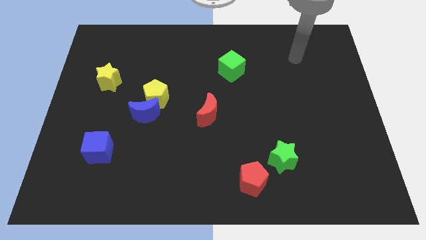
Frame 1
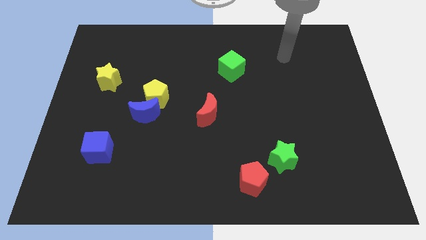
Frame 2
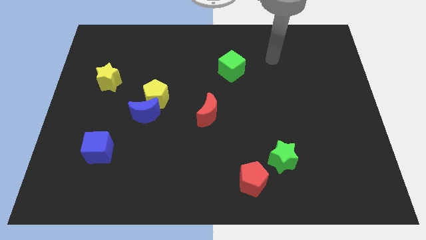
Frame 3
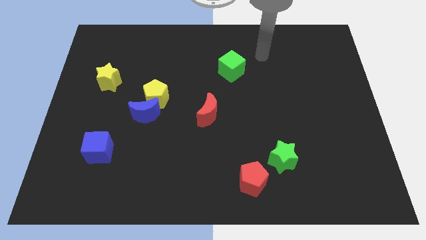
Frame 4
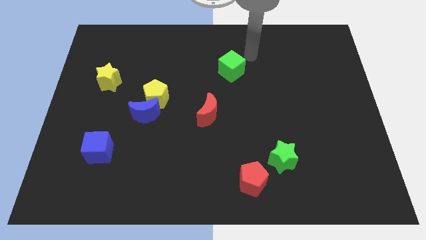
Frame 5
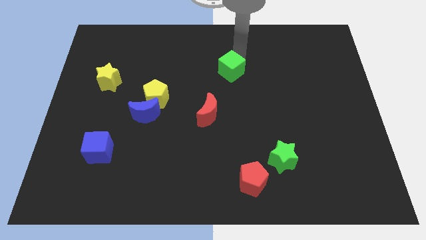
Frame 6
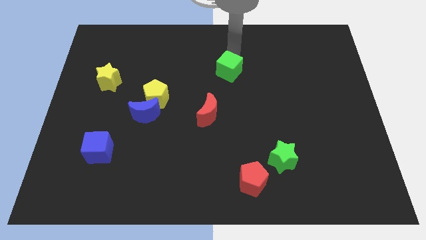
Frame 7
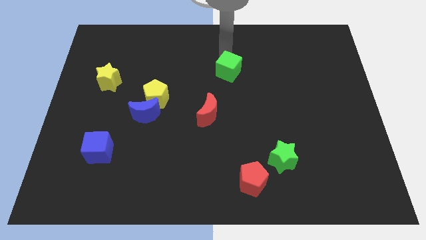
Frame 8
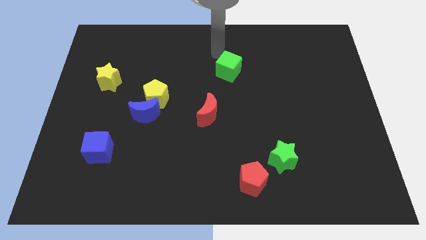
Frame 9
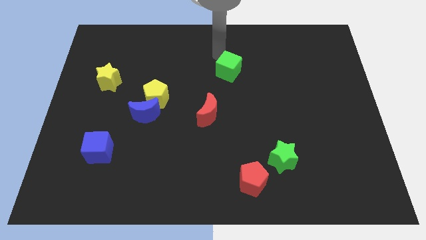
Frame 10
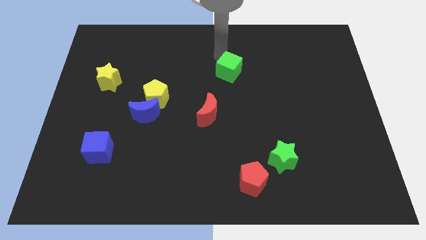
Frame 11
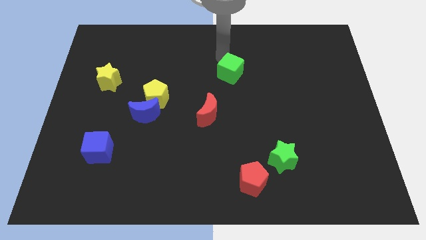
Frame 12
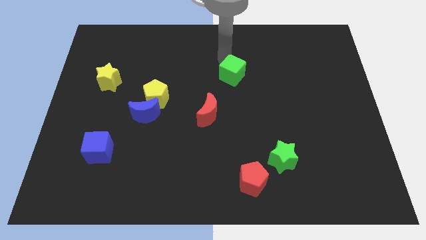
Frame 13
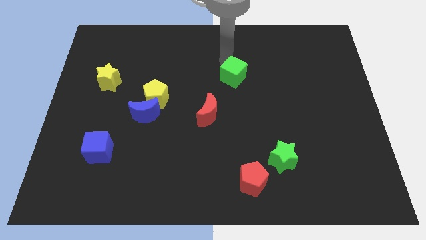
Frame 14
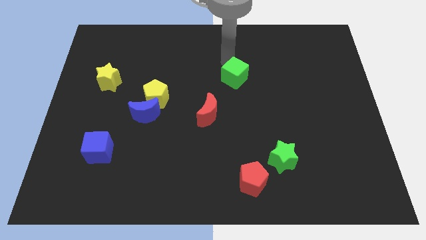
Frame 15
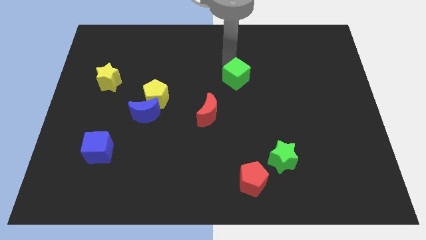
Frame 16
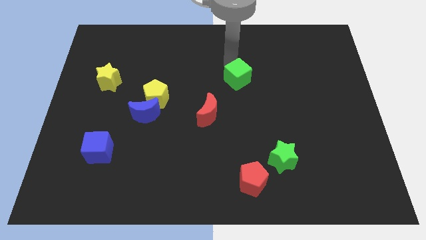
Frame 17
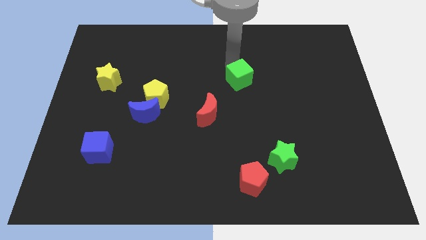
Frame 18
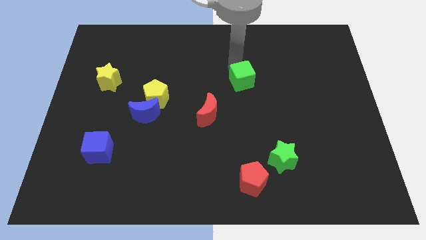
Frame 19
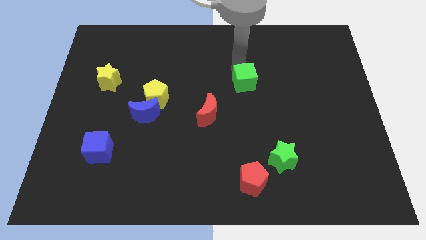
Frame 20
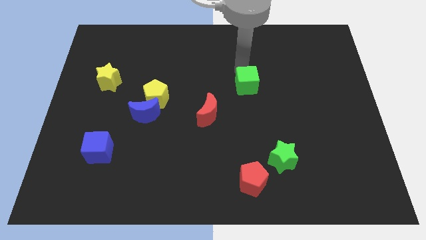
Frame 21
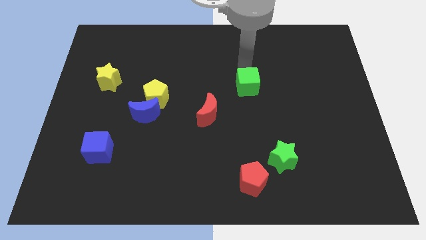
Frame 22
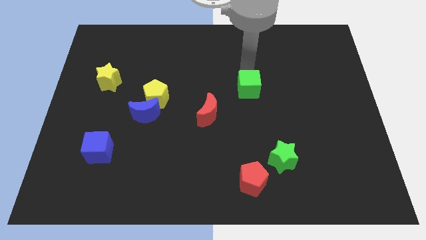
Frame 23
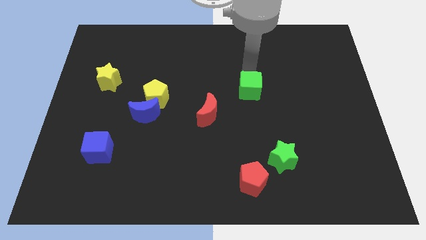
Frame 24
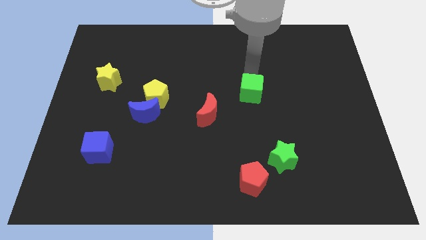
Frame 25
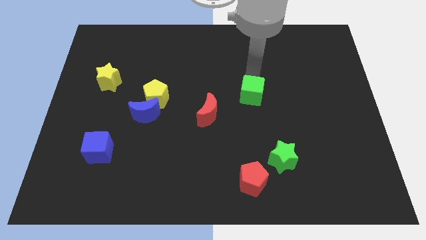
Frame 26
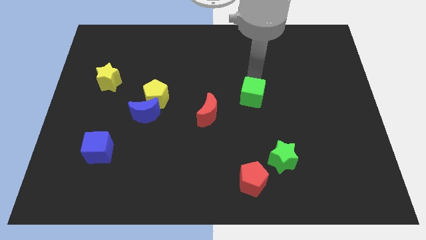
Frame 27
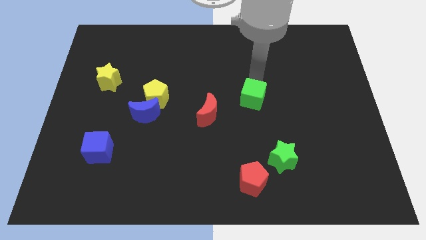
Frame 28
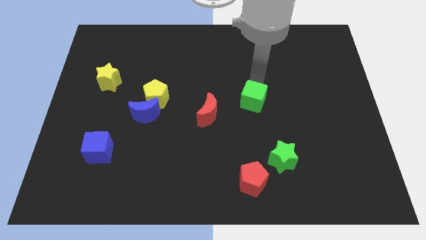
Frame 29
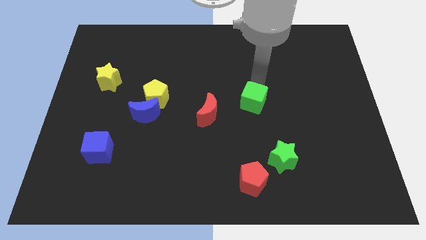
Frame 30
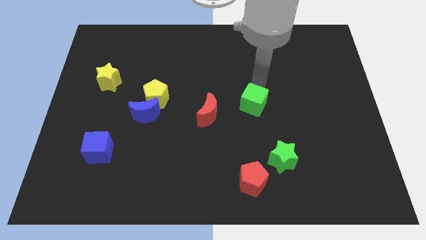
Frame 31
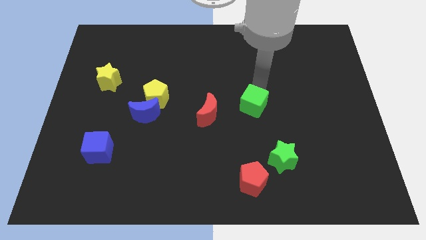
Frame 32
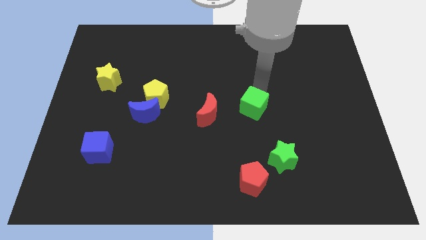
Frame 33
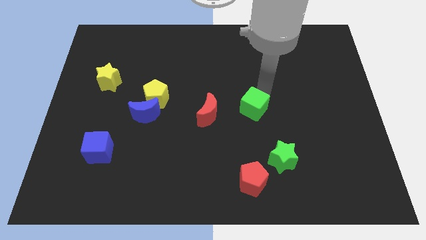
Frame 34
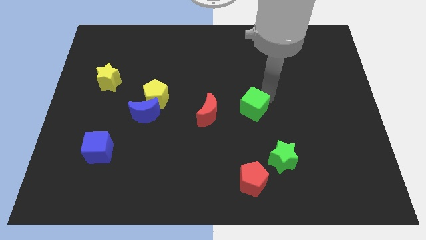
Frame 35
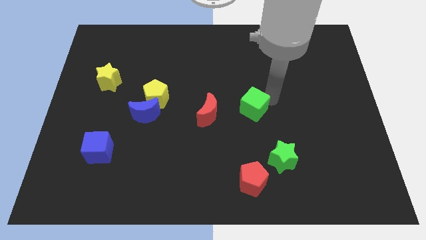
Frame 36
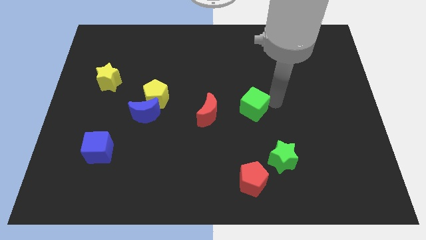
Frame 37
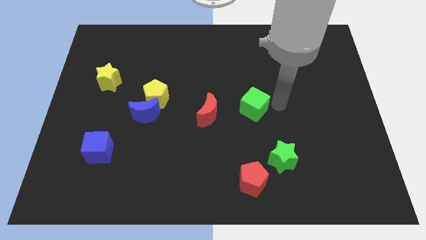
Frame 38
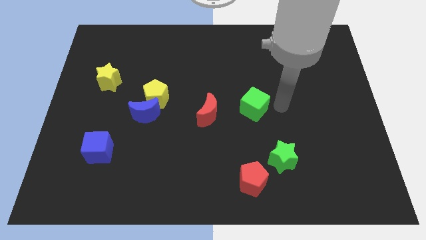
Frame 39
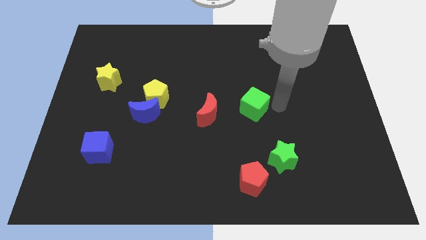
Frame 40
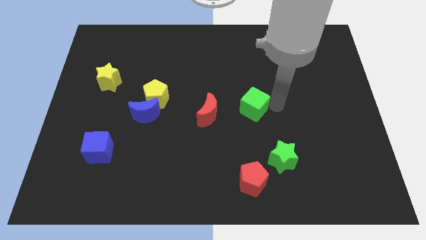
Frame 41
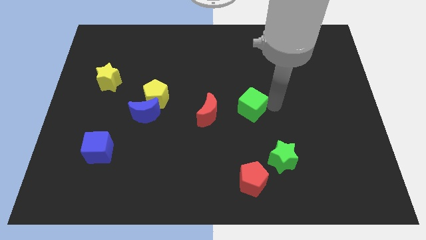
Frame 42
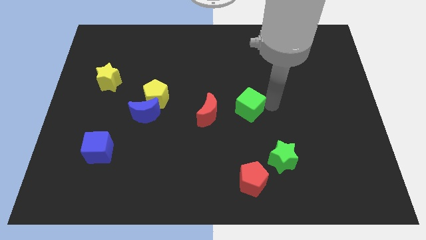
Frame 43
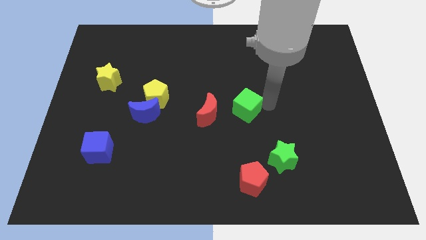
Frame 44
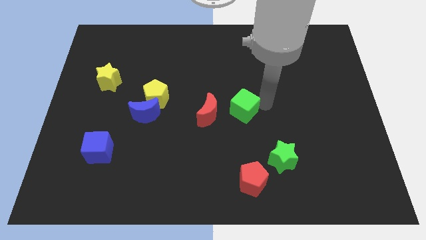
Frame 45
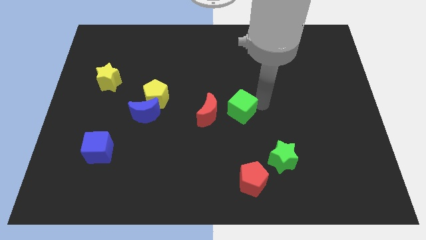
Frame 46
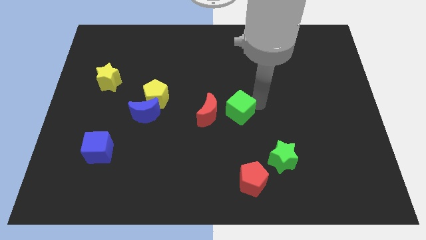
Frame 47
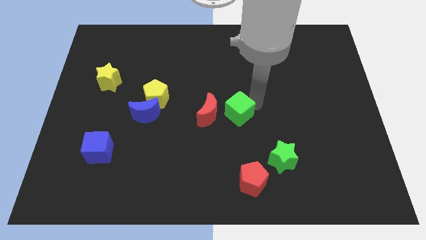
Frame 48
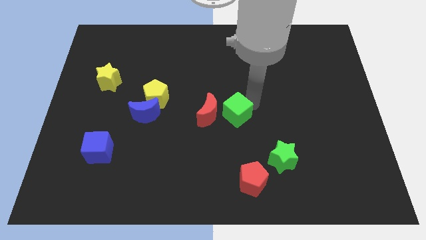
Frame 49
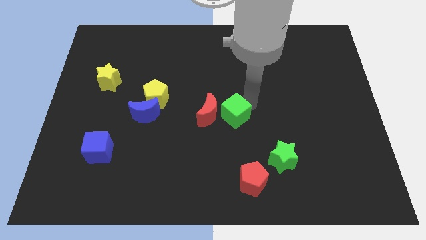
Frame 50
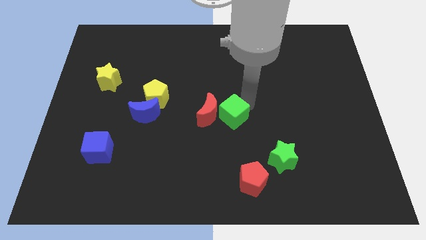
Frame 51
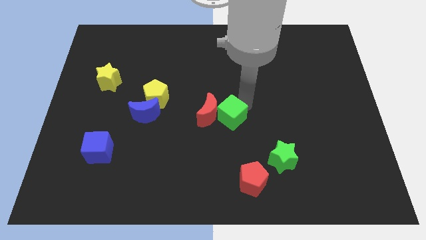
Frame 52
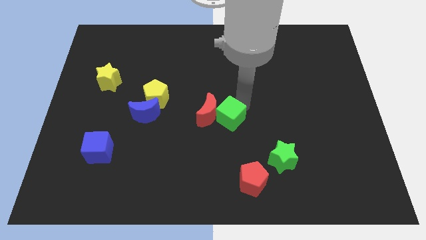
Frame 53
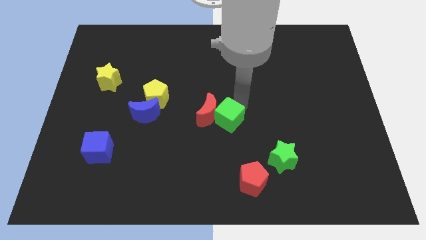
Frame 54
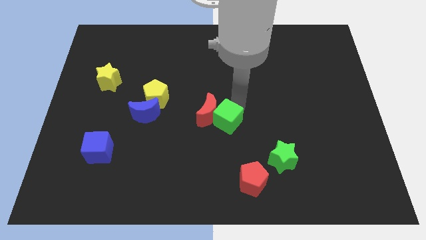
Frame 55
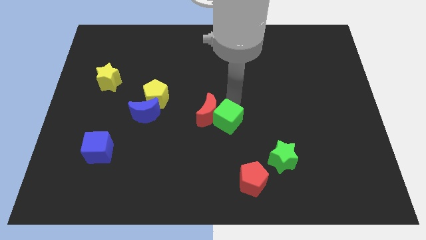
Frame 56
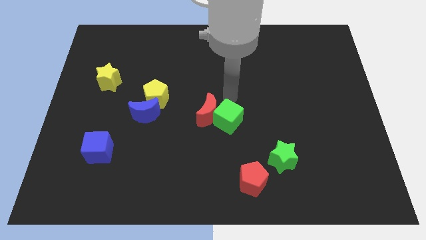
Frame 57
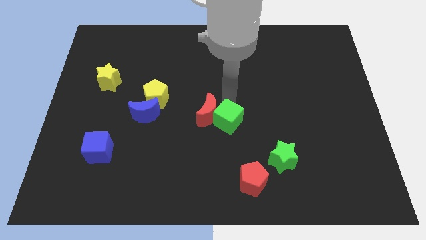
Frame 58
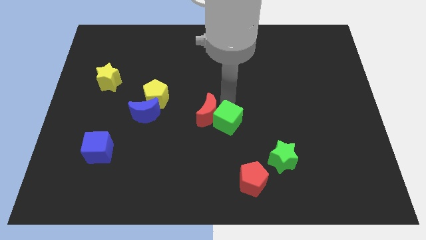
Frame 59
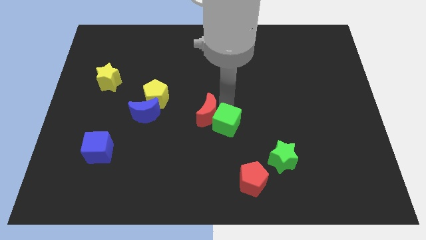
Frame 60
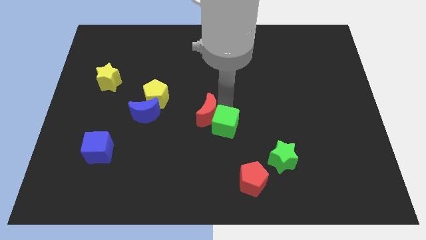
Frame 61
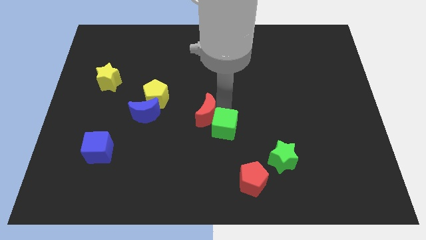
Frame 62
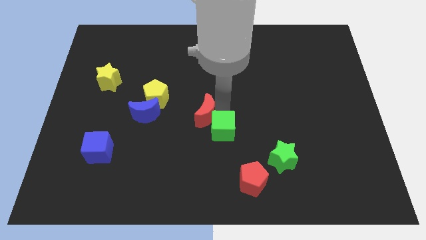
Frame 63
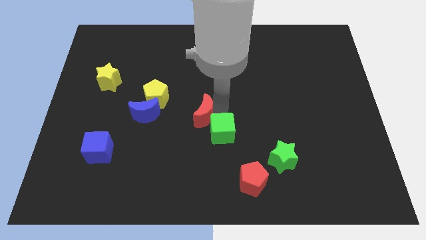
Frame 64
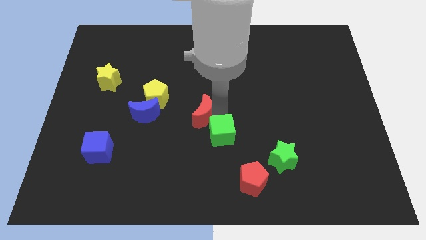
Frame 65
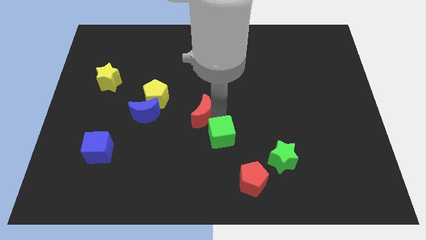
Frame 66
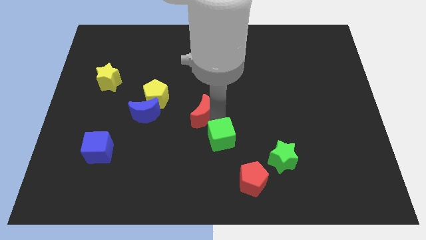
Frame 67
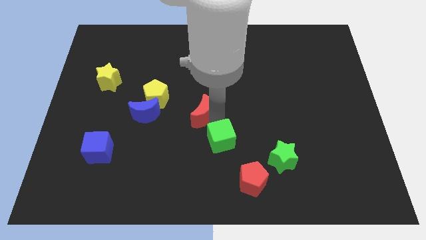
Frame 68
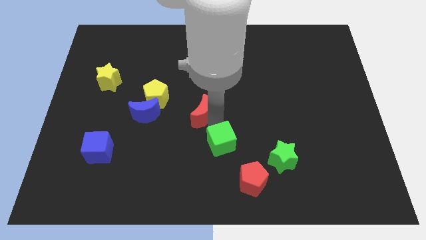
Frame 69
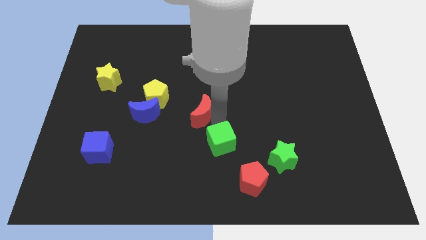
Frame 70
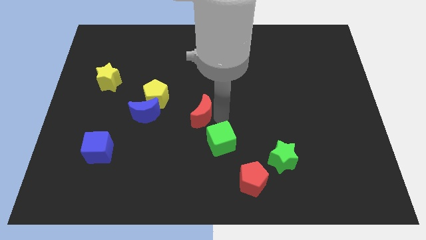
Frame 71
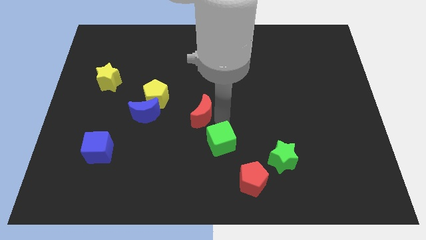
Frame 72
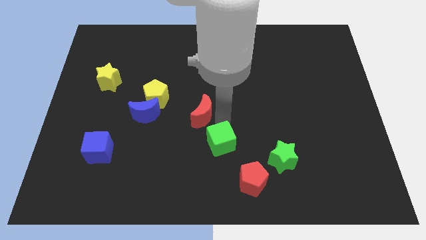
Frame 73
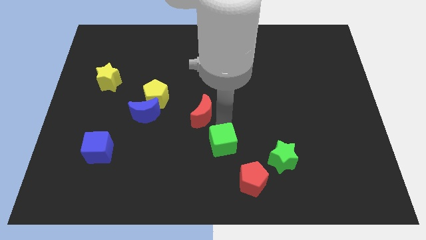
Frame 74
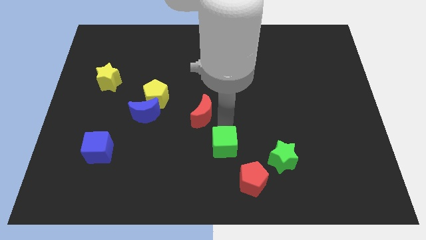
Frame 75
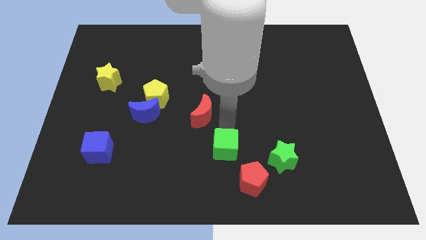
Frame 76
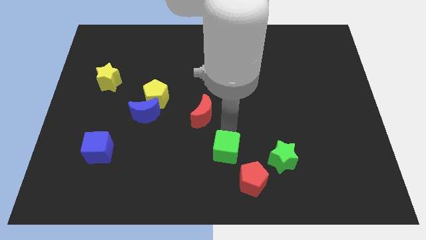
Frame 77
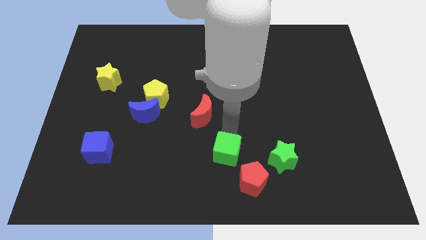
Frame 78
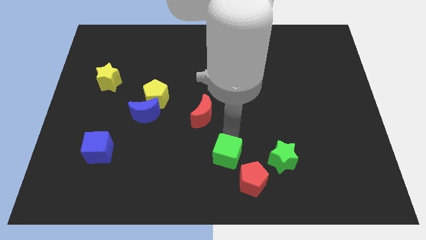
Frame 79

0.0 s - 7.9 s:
slide the green cube to the bottom

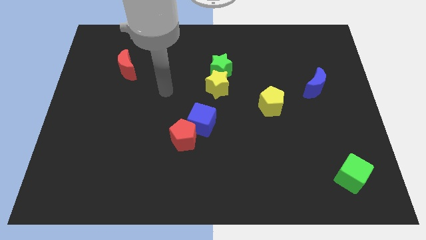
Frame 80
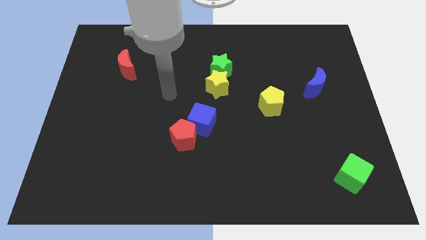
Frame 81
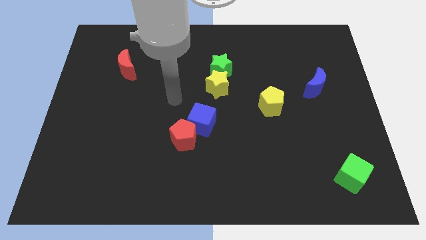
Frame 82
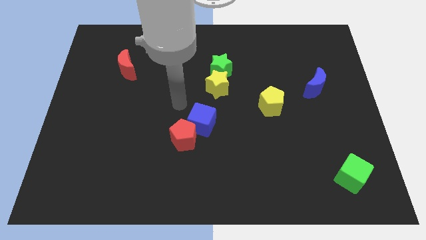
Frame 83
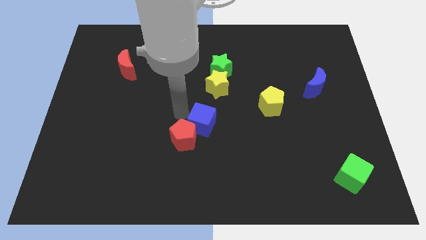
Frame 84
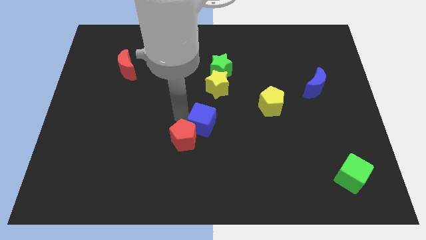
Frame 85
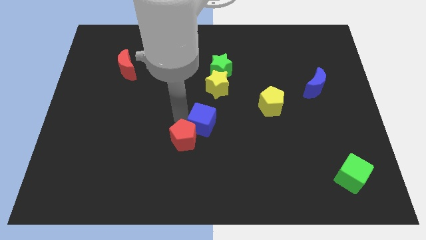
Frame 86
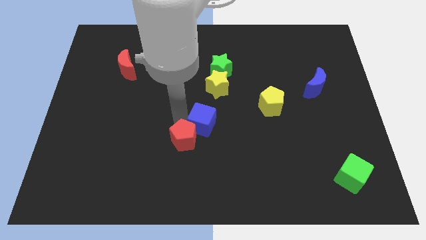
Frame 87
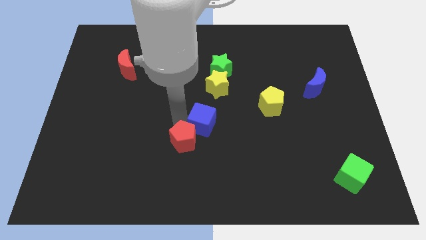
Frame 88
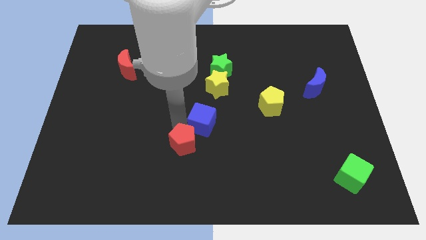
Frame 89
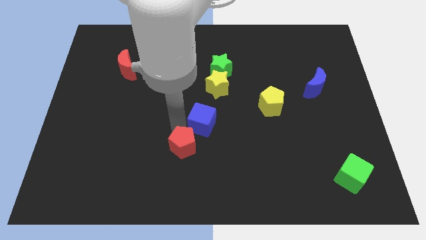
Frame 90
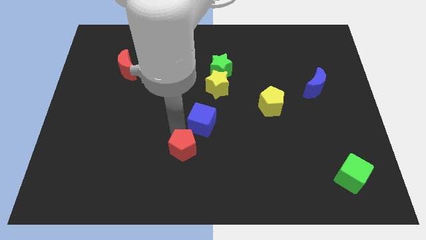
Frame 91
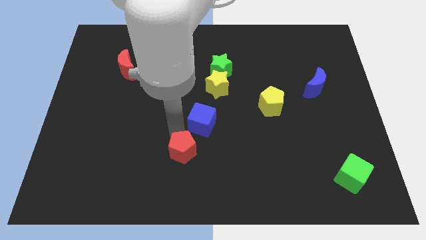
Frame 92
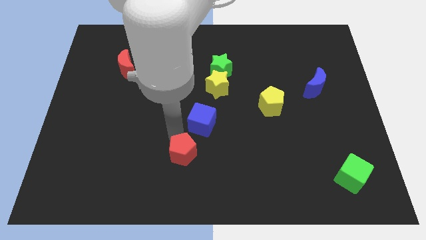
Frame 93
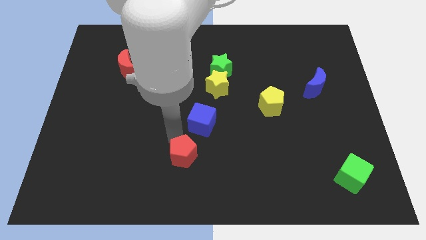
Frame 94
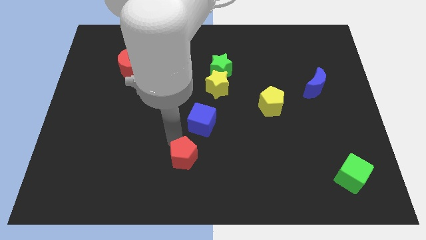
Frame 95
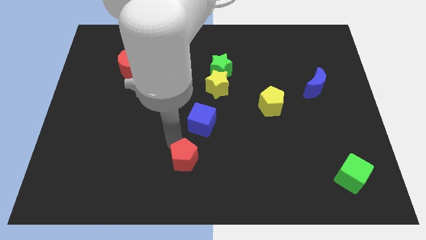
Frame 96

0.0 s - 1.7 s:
put the red pentagon to the bottom
